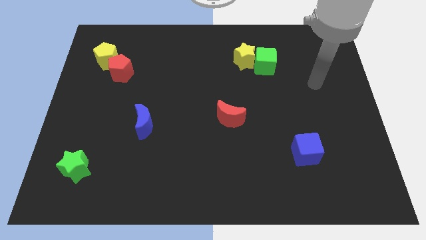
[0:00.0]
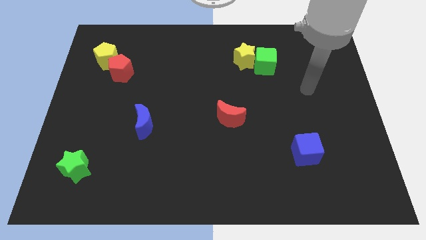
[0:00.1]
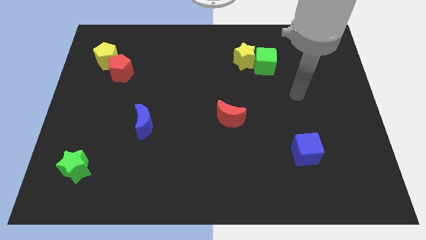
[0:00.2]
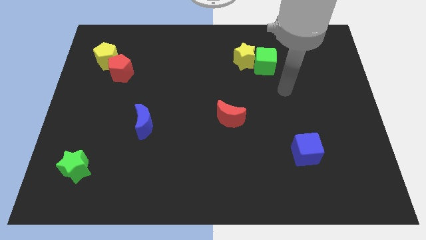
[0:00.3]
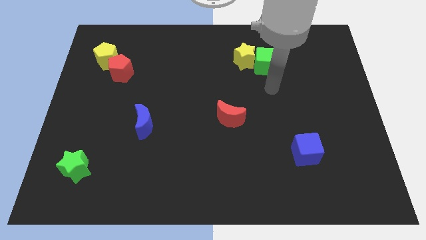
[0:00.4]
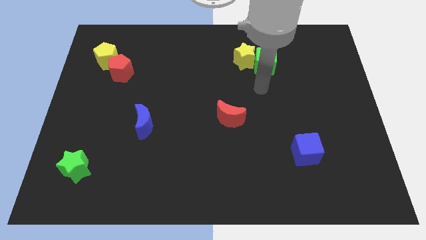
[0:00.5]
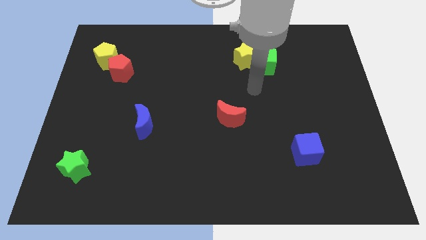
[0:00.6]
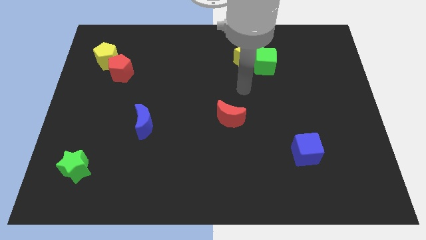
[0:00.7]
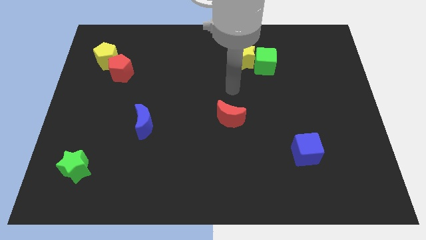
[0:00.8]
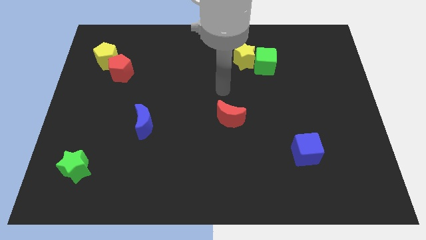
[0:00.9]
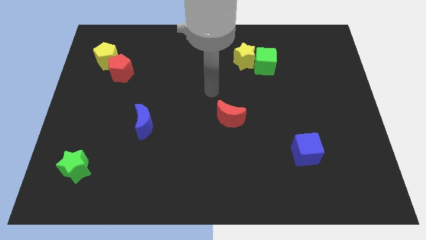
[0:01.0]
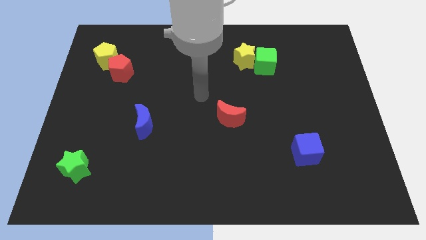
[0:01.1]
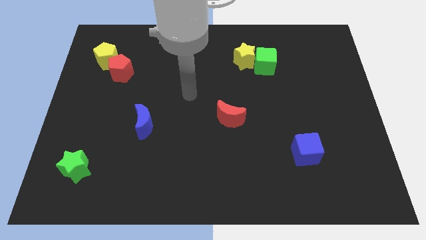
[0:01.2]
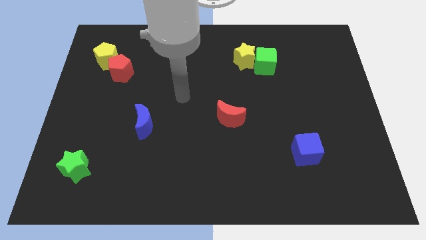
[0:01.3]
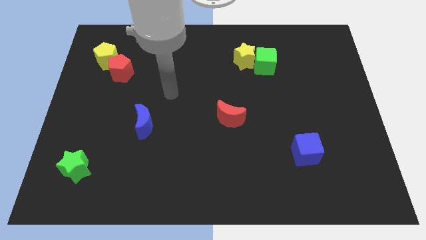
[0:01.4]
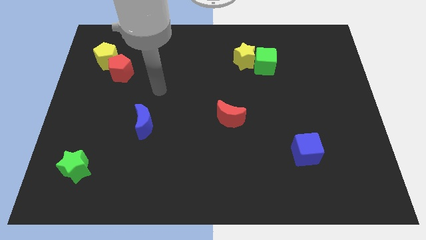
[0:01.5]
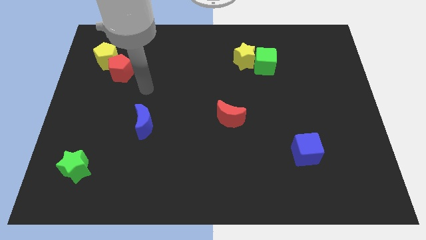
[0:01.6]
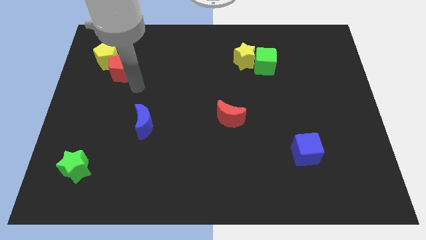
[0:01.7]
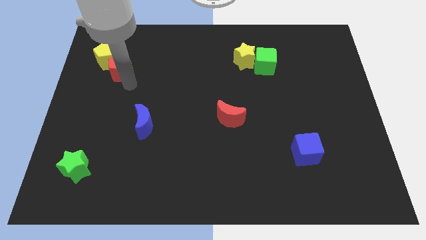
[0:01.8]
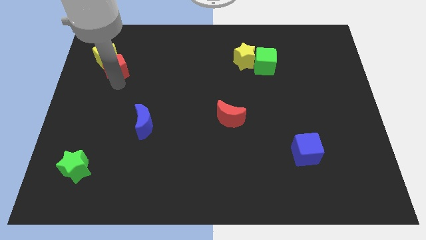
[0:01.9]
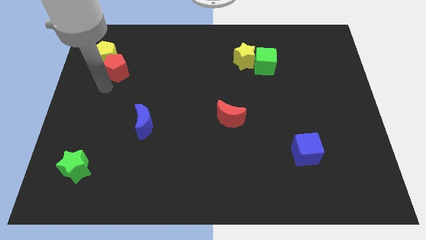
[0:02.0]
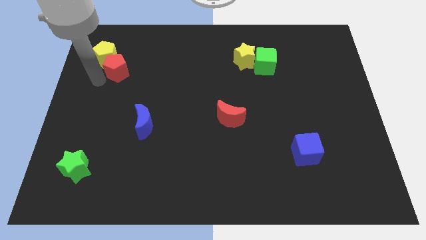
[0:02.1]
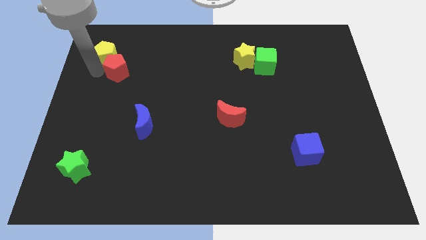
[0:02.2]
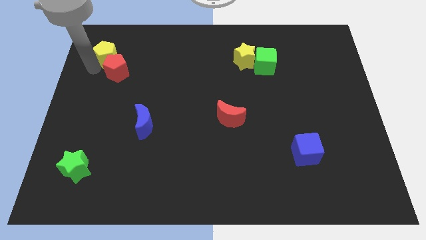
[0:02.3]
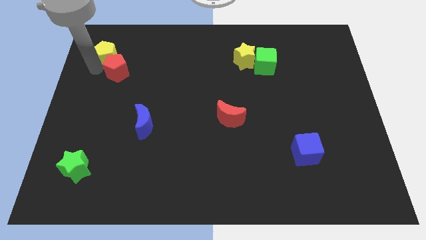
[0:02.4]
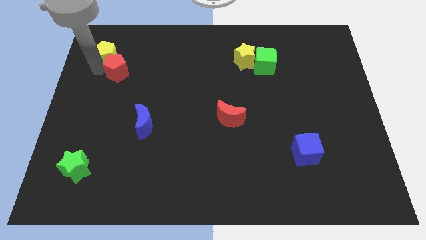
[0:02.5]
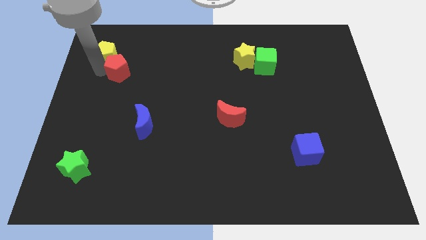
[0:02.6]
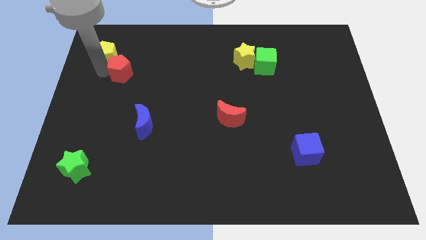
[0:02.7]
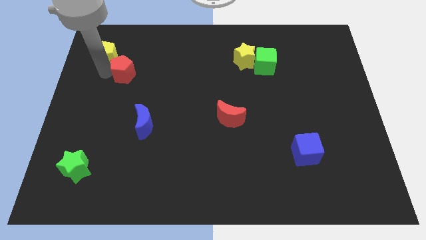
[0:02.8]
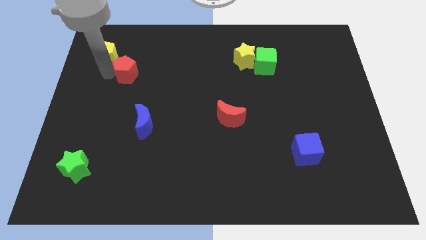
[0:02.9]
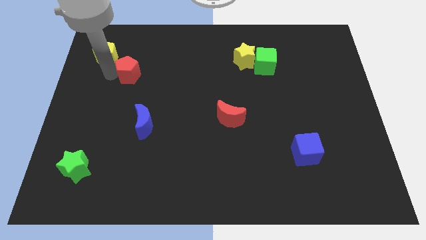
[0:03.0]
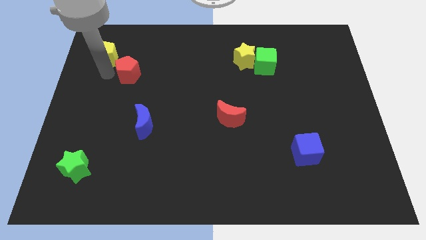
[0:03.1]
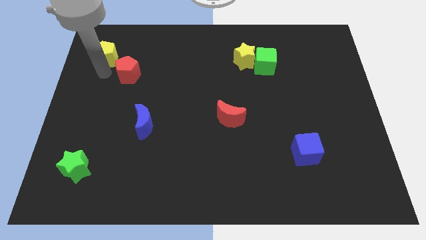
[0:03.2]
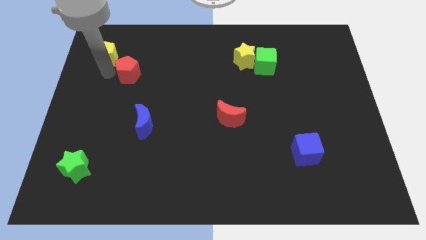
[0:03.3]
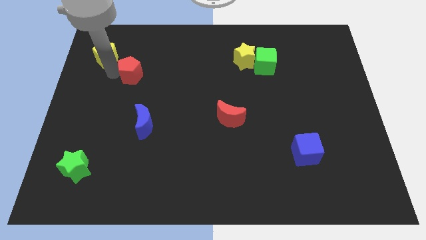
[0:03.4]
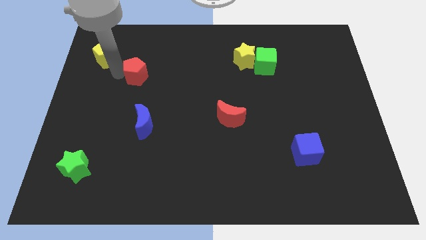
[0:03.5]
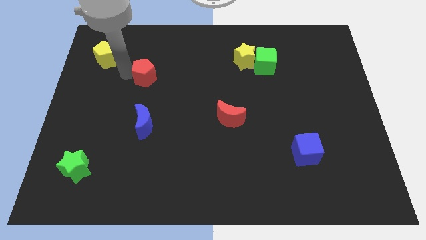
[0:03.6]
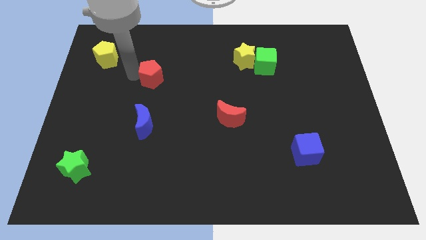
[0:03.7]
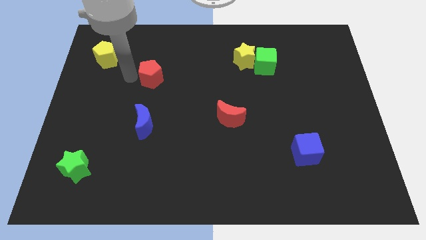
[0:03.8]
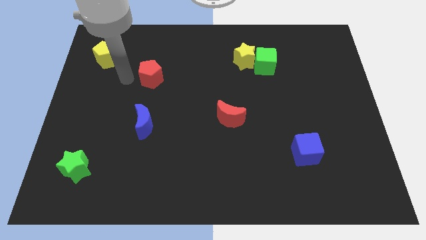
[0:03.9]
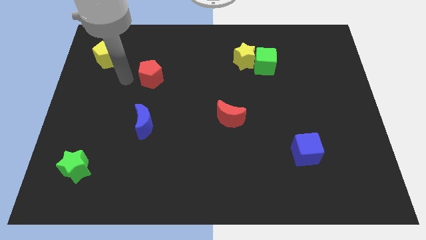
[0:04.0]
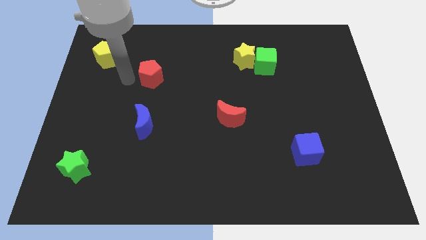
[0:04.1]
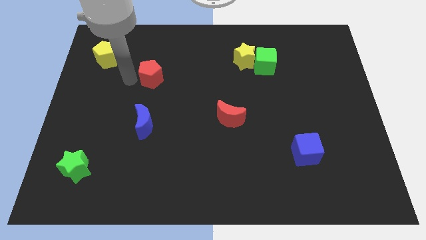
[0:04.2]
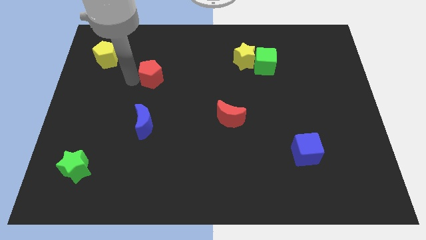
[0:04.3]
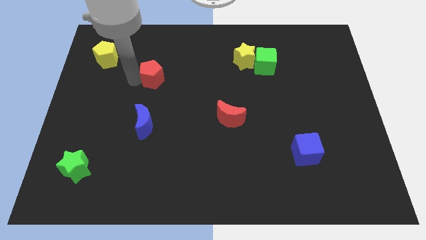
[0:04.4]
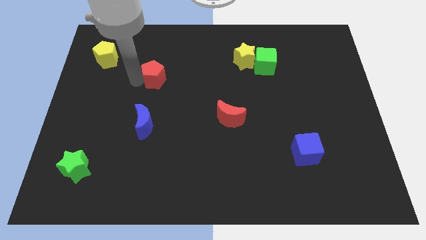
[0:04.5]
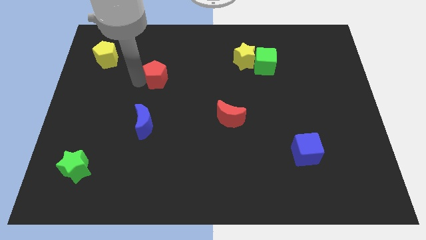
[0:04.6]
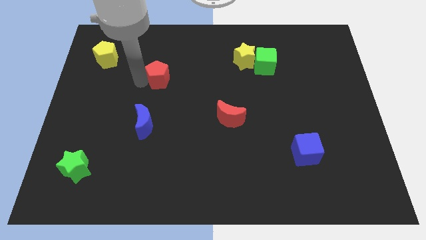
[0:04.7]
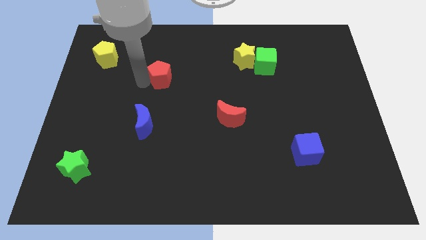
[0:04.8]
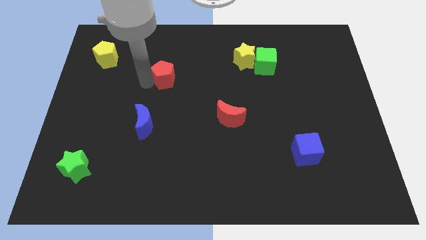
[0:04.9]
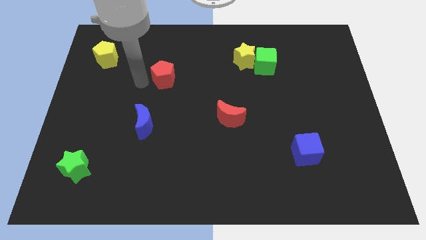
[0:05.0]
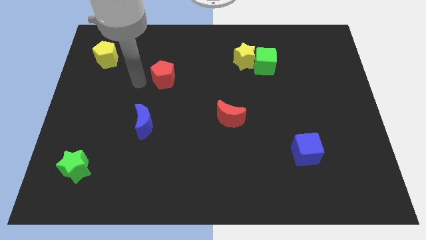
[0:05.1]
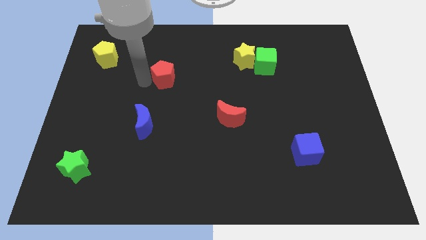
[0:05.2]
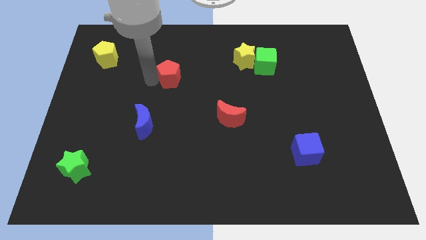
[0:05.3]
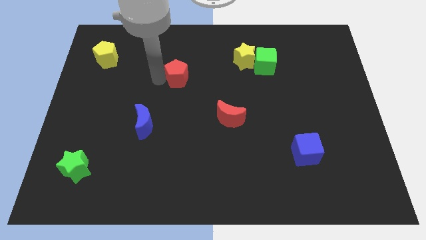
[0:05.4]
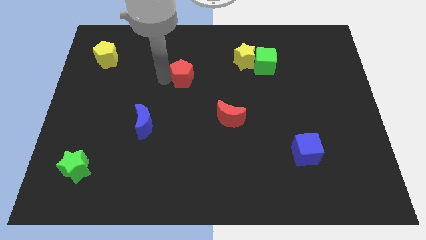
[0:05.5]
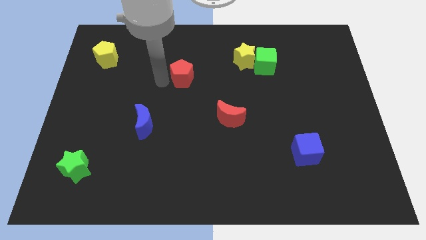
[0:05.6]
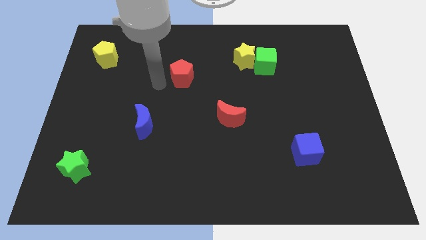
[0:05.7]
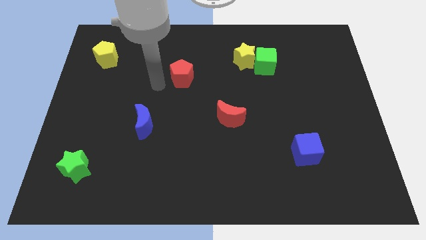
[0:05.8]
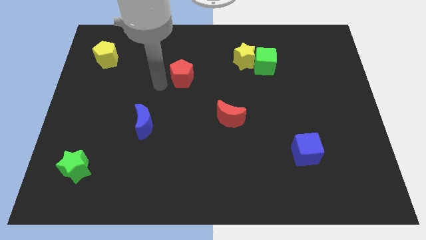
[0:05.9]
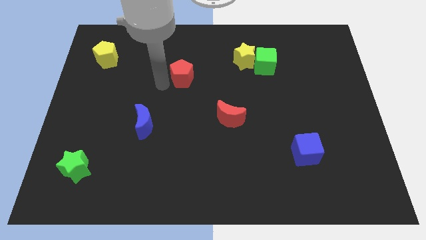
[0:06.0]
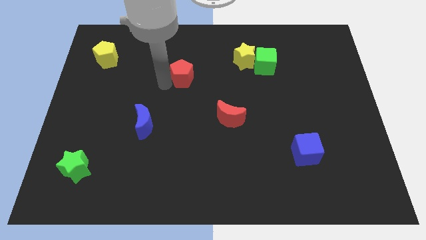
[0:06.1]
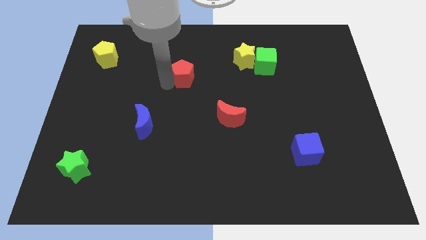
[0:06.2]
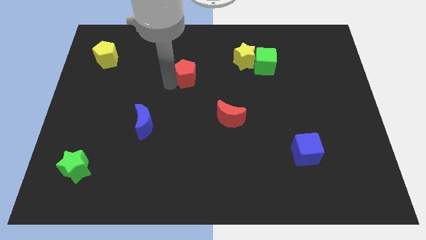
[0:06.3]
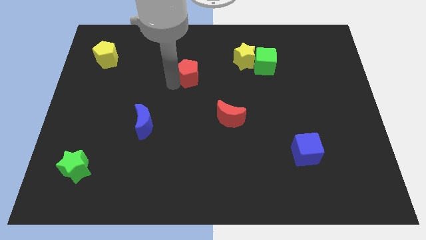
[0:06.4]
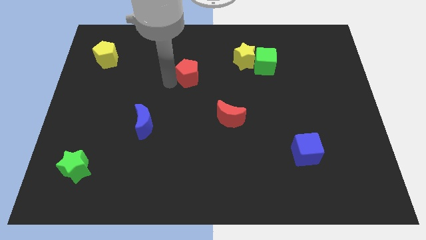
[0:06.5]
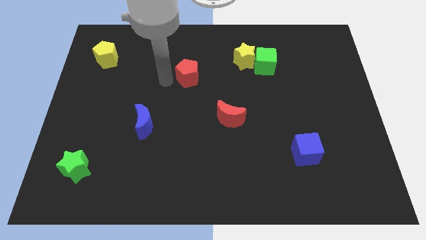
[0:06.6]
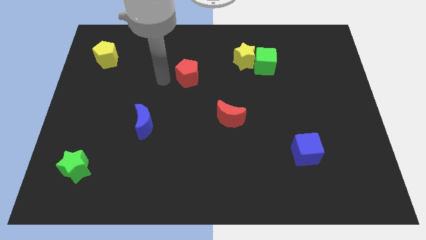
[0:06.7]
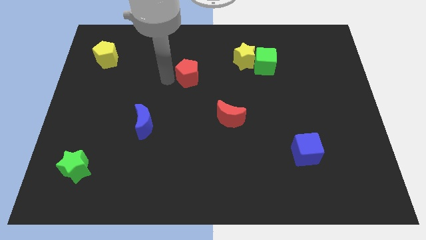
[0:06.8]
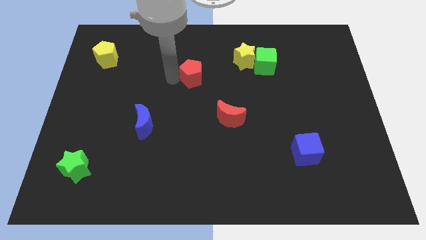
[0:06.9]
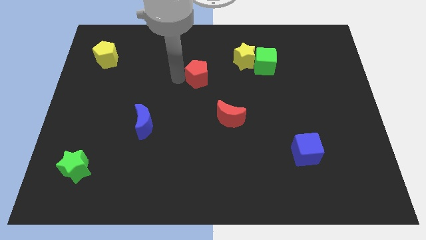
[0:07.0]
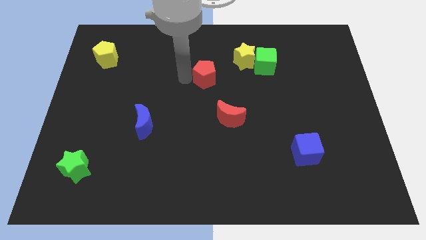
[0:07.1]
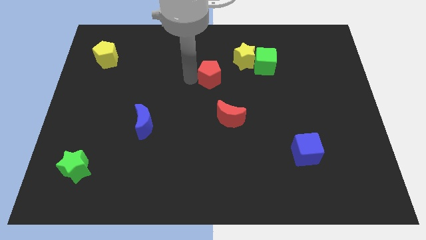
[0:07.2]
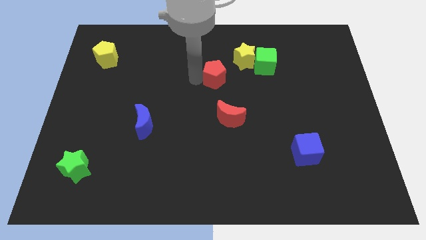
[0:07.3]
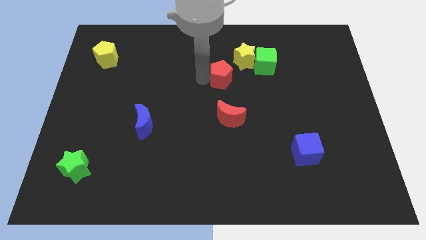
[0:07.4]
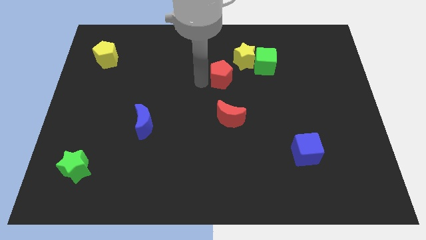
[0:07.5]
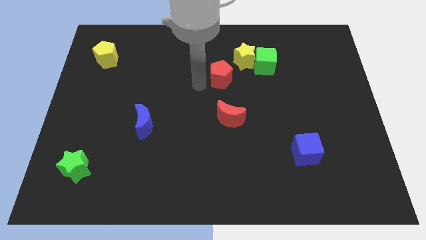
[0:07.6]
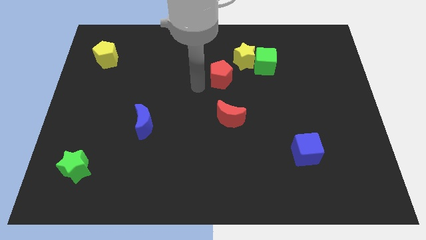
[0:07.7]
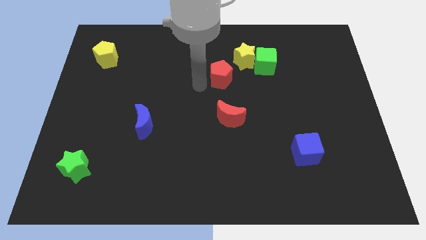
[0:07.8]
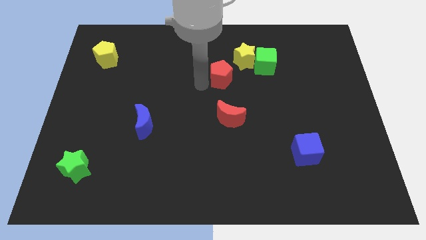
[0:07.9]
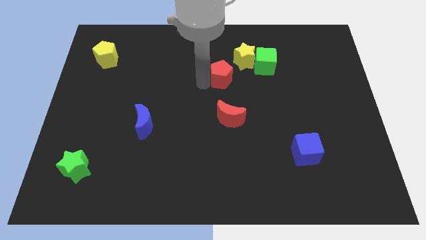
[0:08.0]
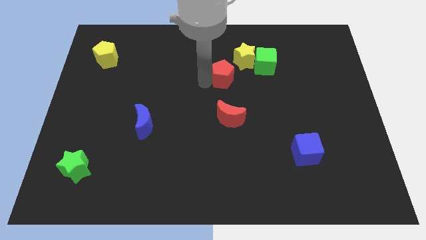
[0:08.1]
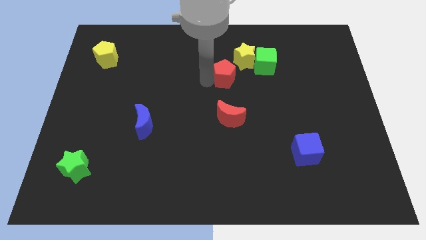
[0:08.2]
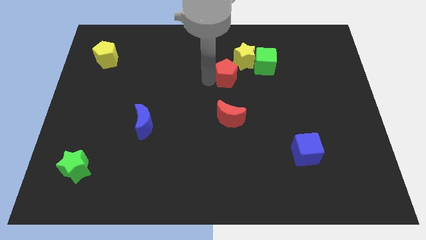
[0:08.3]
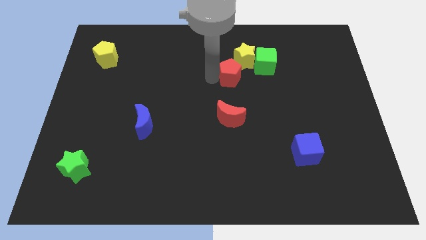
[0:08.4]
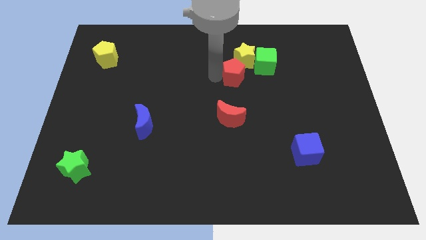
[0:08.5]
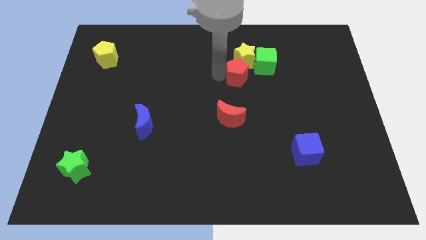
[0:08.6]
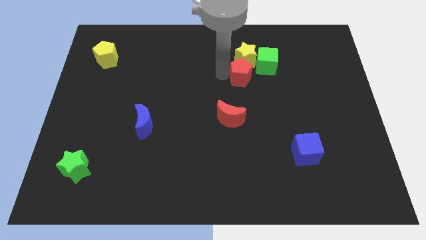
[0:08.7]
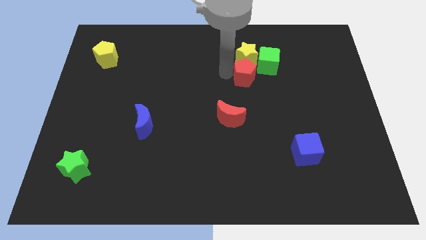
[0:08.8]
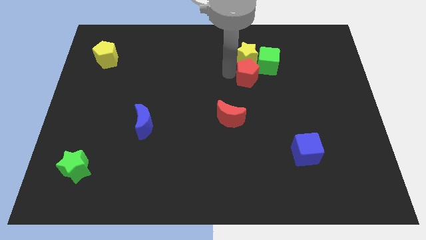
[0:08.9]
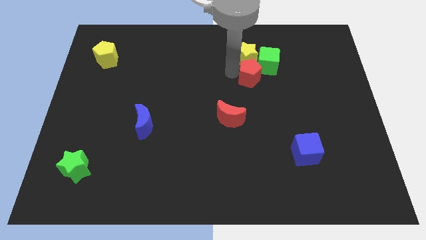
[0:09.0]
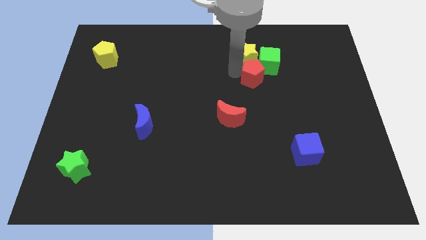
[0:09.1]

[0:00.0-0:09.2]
push the red pentagon close to the green cube
